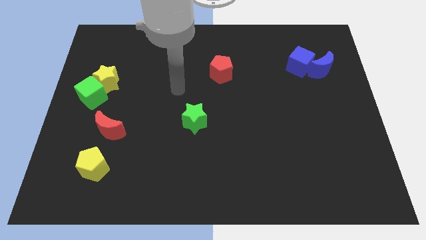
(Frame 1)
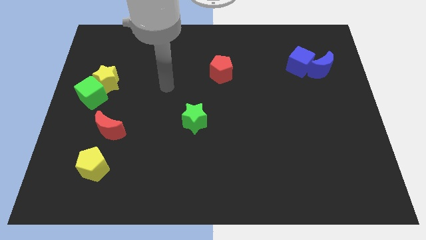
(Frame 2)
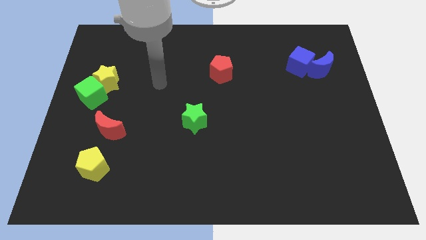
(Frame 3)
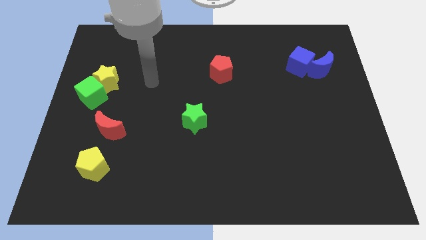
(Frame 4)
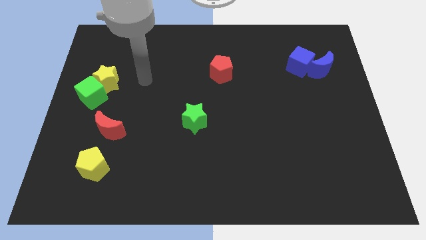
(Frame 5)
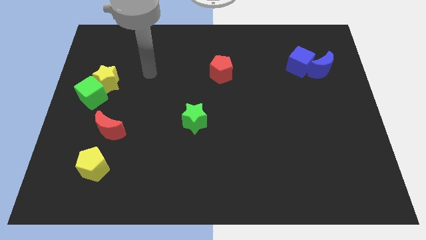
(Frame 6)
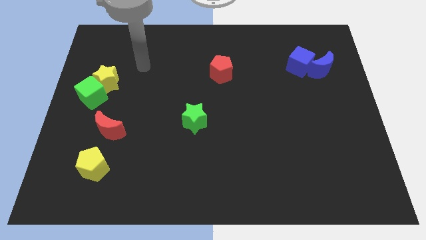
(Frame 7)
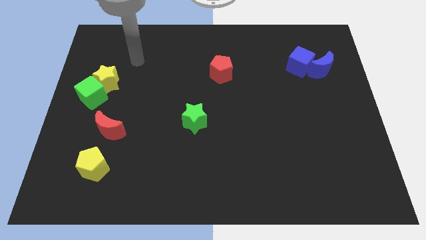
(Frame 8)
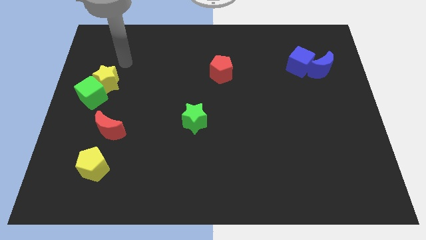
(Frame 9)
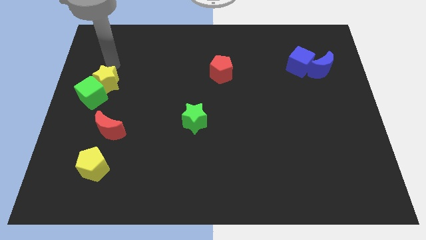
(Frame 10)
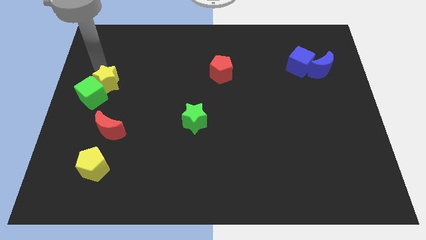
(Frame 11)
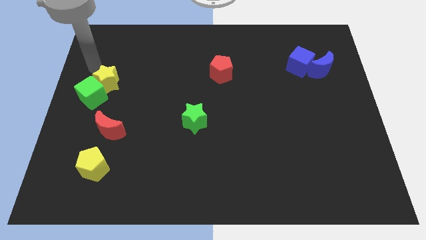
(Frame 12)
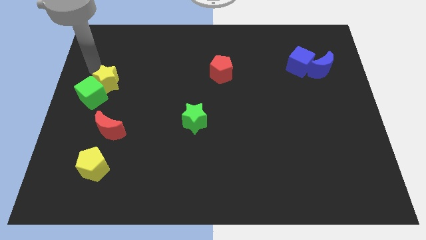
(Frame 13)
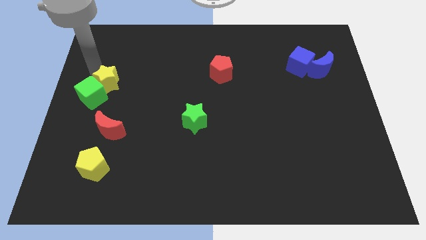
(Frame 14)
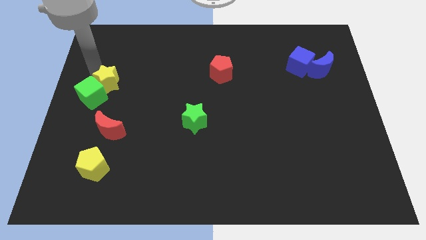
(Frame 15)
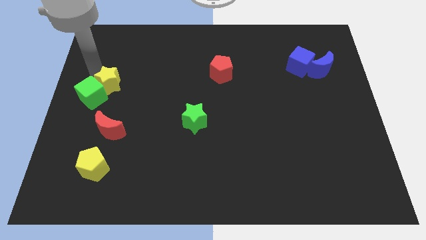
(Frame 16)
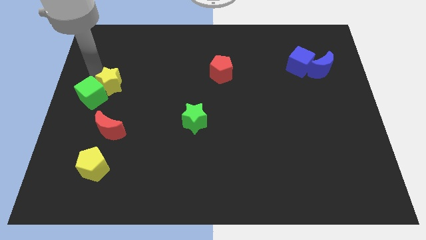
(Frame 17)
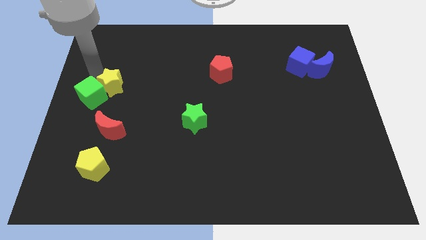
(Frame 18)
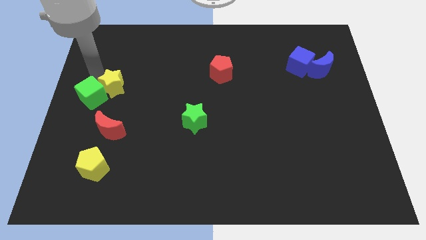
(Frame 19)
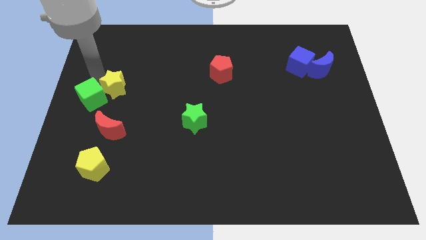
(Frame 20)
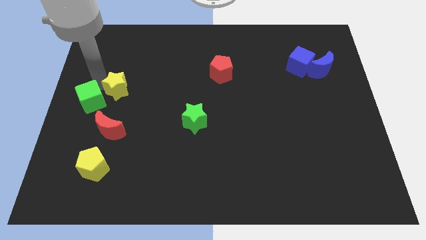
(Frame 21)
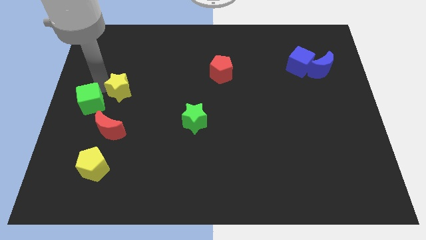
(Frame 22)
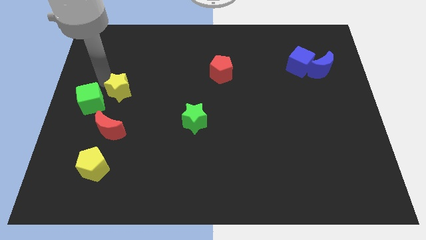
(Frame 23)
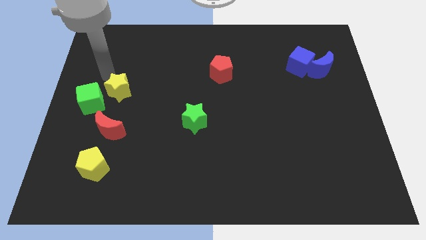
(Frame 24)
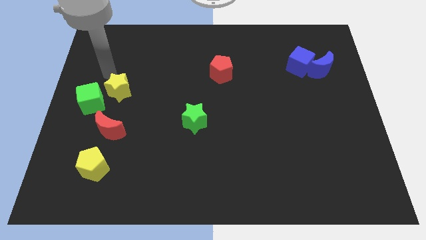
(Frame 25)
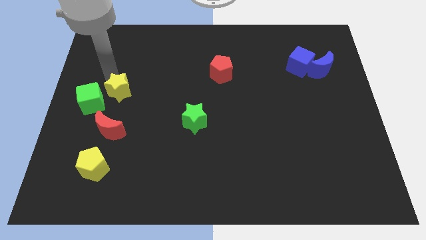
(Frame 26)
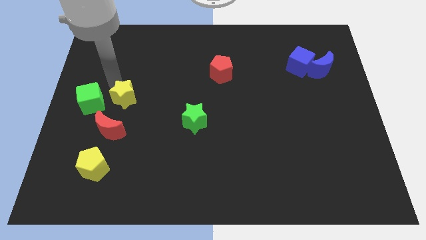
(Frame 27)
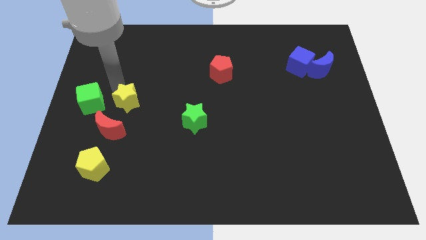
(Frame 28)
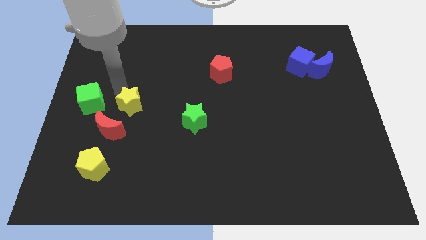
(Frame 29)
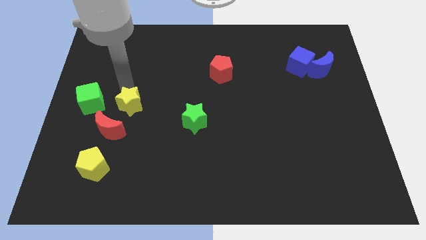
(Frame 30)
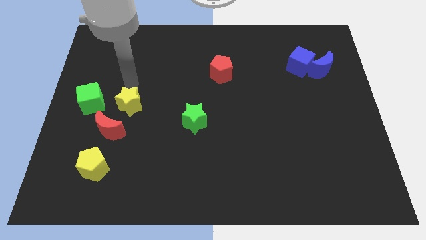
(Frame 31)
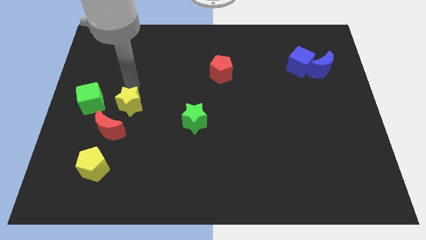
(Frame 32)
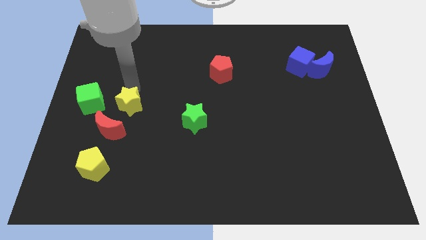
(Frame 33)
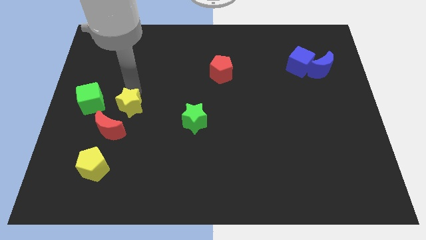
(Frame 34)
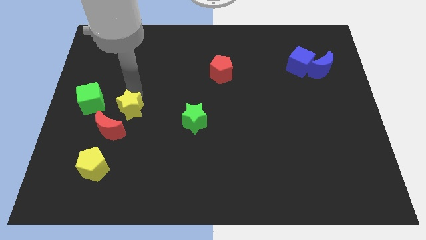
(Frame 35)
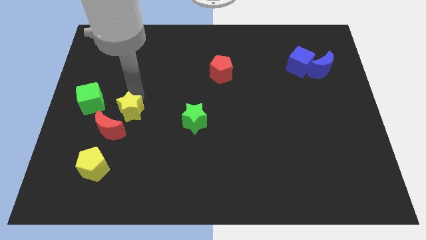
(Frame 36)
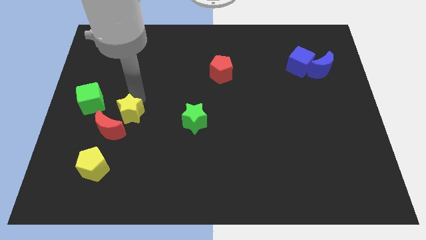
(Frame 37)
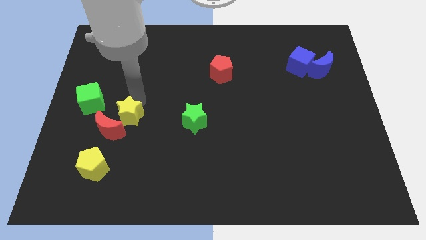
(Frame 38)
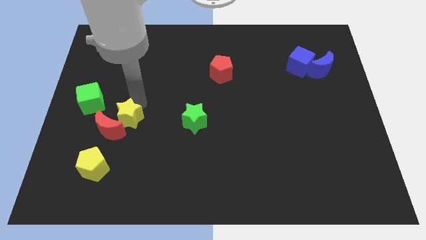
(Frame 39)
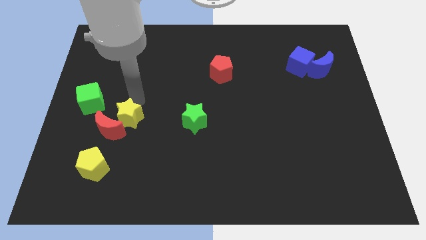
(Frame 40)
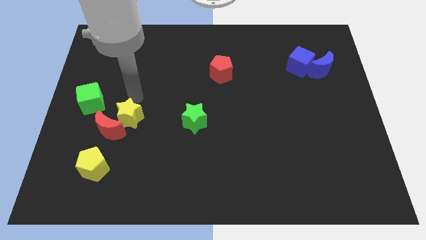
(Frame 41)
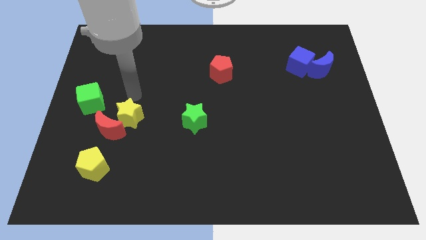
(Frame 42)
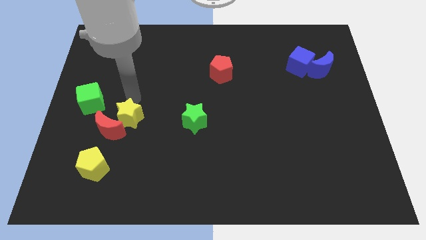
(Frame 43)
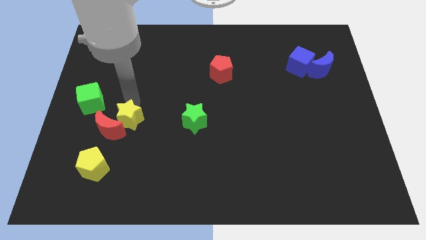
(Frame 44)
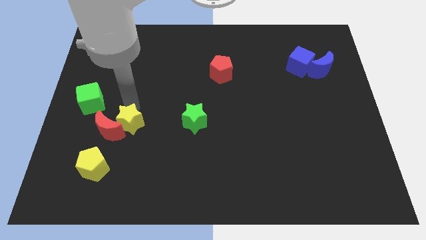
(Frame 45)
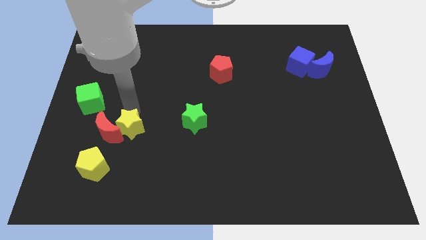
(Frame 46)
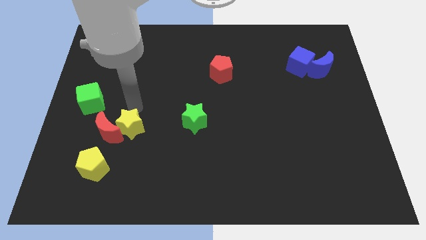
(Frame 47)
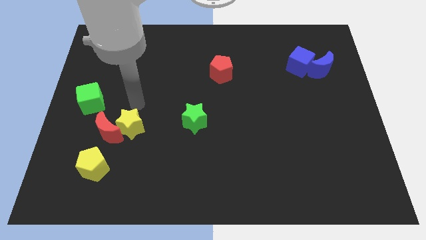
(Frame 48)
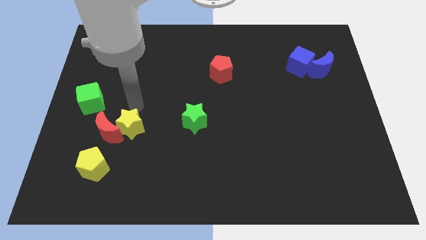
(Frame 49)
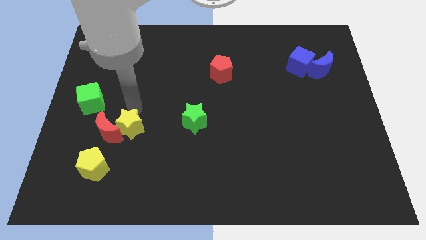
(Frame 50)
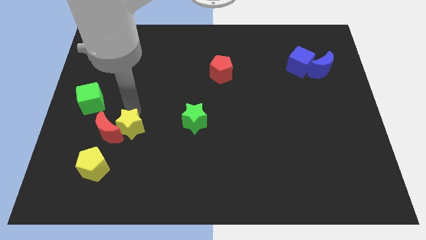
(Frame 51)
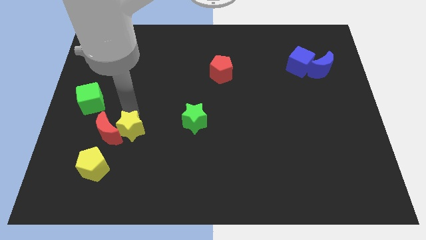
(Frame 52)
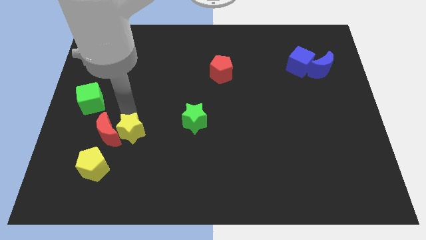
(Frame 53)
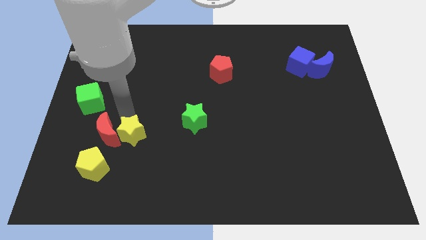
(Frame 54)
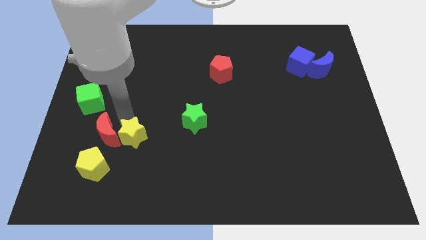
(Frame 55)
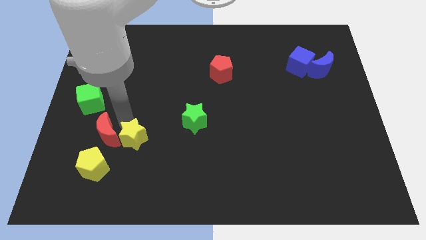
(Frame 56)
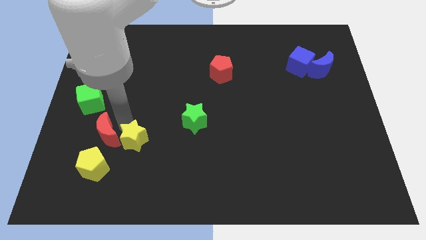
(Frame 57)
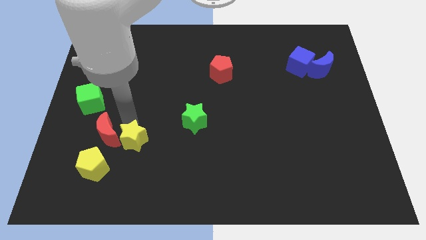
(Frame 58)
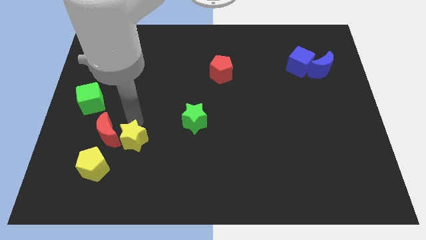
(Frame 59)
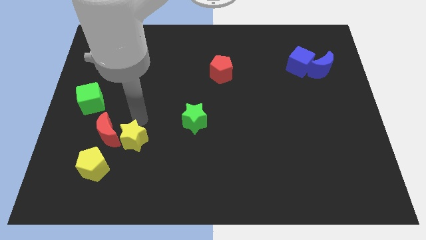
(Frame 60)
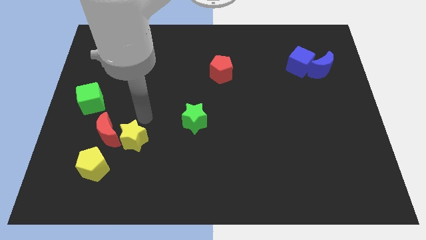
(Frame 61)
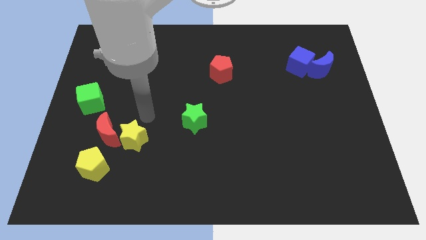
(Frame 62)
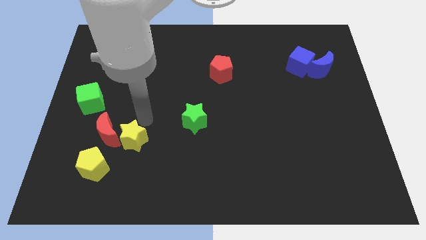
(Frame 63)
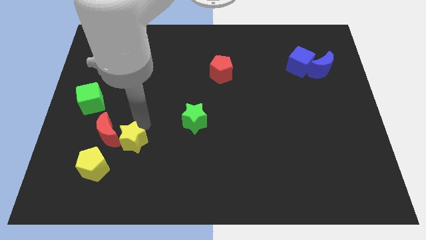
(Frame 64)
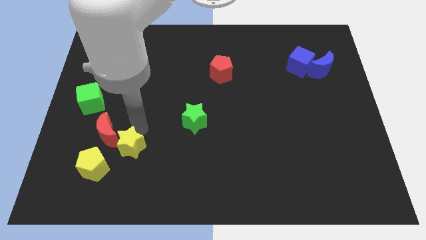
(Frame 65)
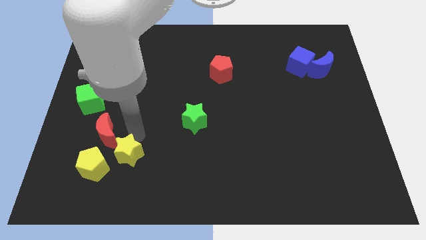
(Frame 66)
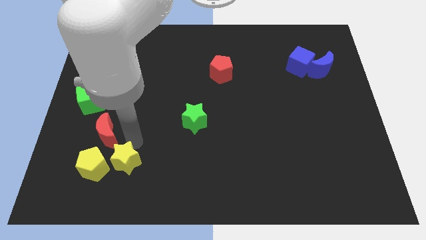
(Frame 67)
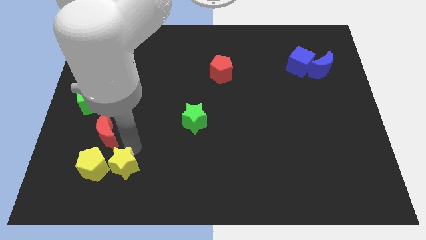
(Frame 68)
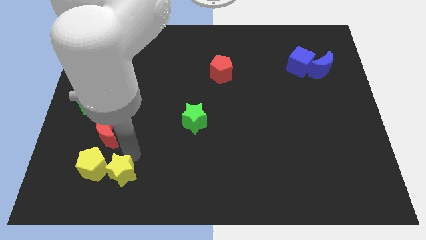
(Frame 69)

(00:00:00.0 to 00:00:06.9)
move the yellow star to the bottom of the red moon

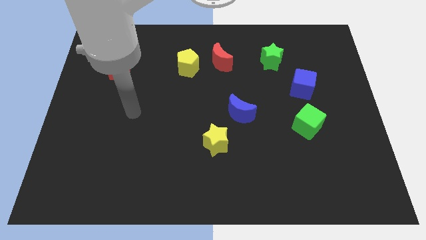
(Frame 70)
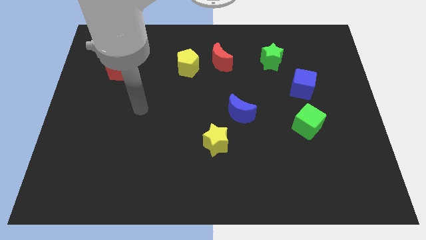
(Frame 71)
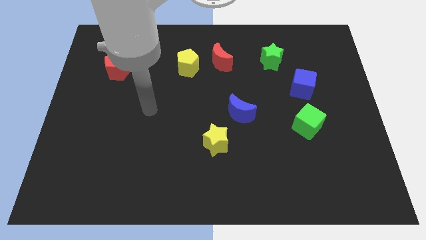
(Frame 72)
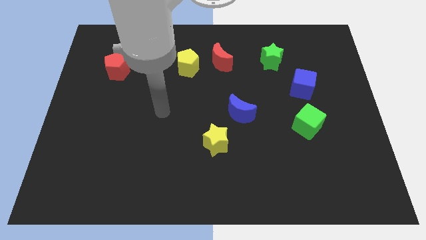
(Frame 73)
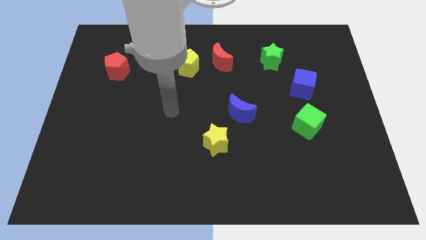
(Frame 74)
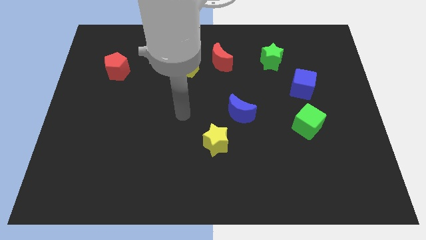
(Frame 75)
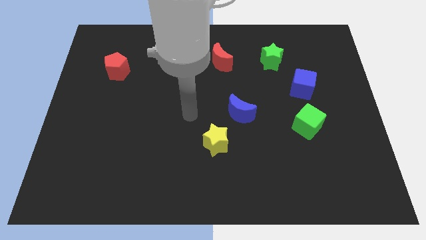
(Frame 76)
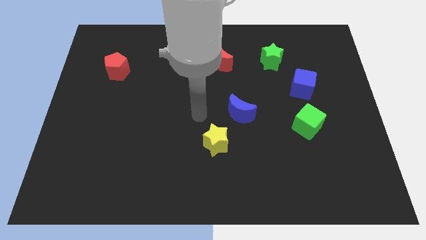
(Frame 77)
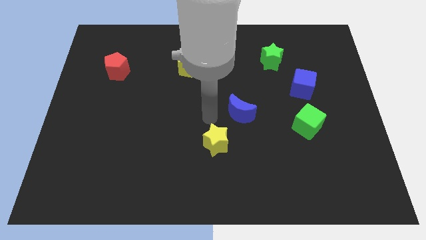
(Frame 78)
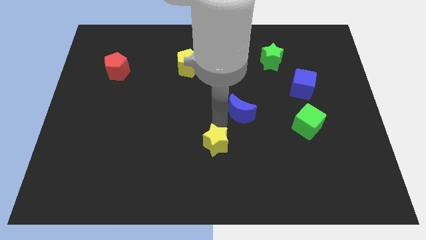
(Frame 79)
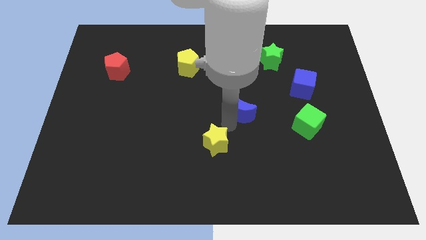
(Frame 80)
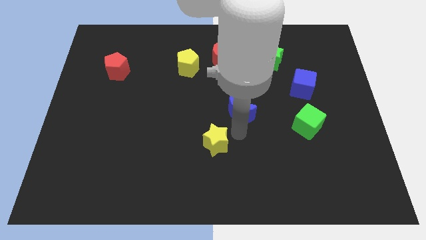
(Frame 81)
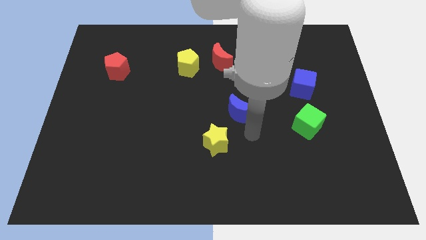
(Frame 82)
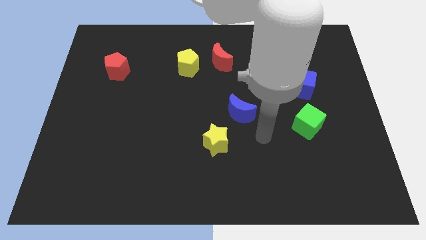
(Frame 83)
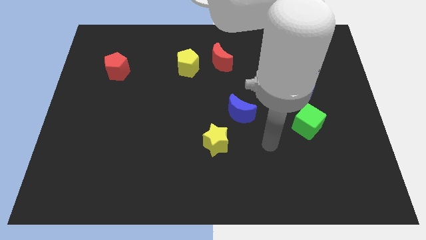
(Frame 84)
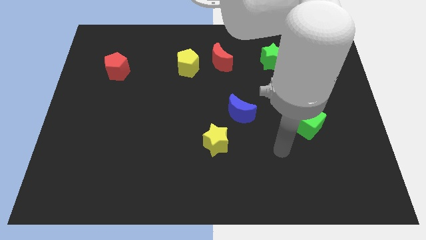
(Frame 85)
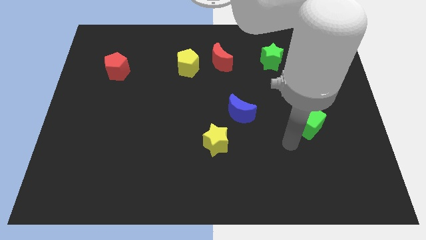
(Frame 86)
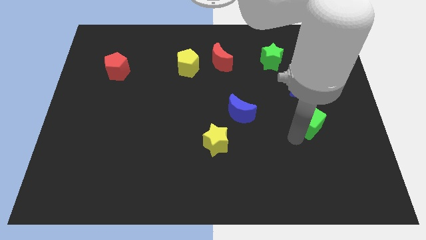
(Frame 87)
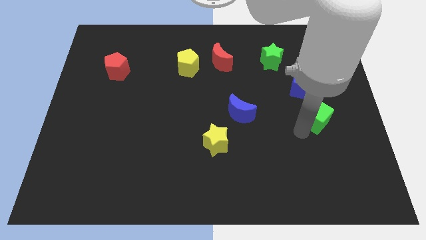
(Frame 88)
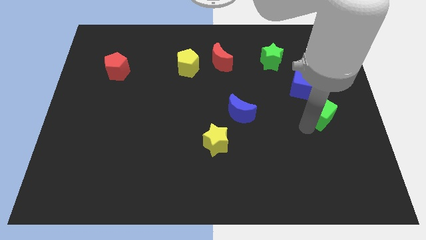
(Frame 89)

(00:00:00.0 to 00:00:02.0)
move the green cube to the bottom right of the blue cube
